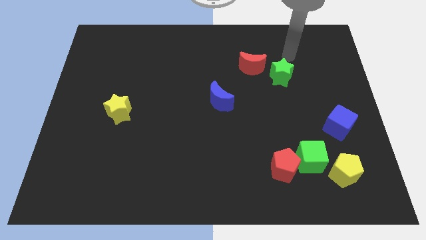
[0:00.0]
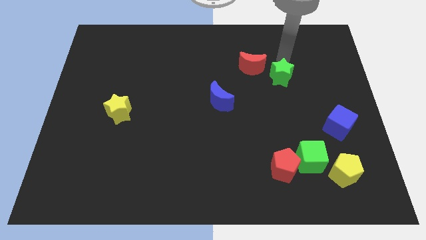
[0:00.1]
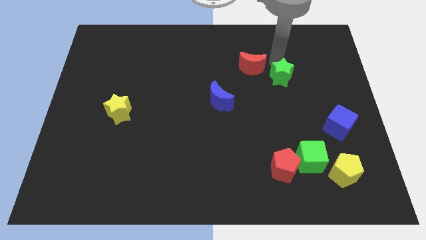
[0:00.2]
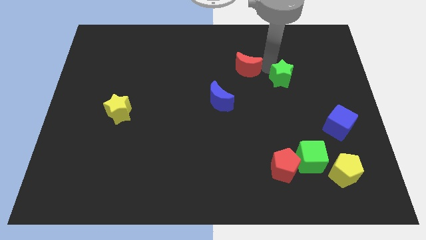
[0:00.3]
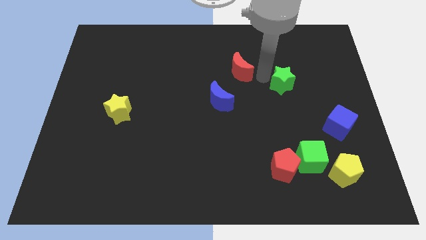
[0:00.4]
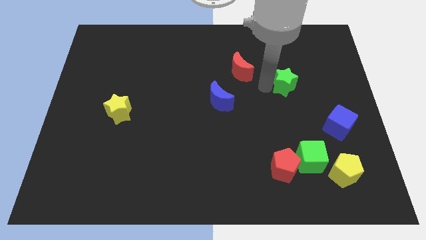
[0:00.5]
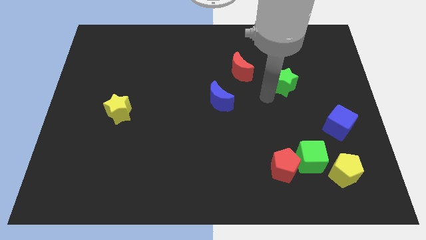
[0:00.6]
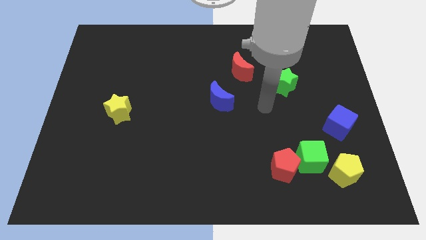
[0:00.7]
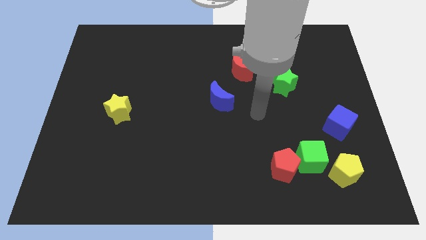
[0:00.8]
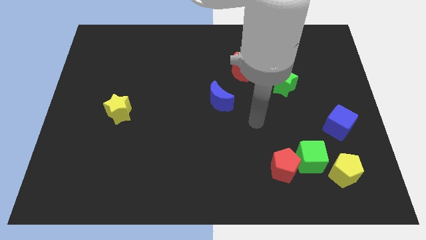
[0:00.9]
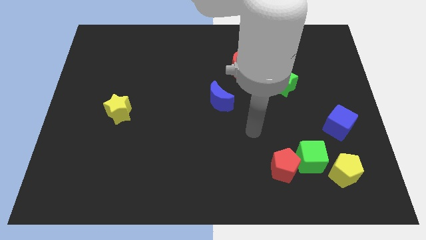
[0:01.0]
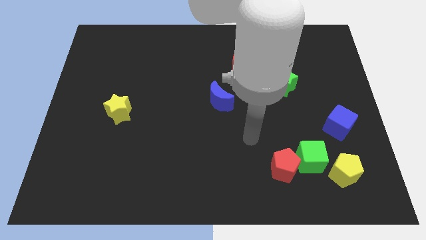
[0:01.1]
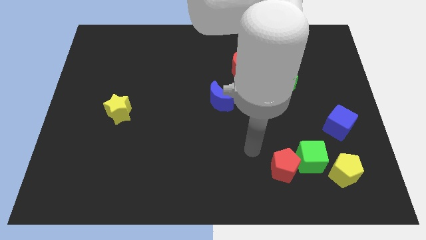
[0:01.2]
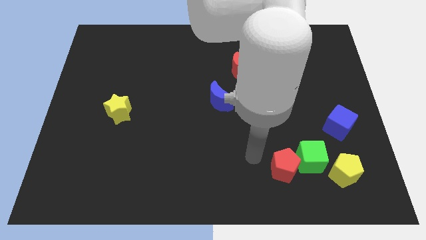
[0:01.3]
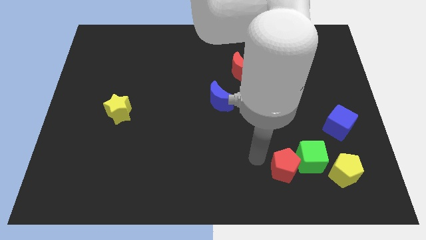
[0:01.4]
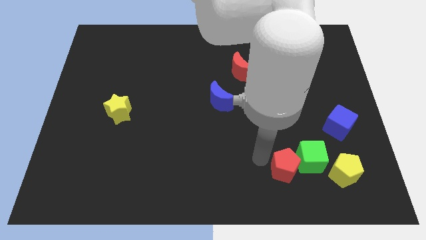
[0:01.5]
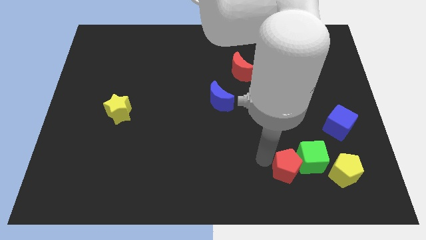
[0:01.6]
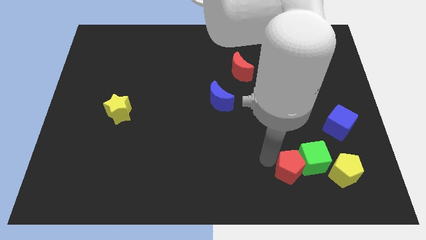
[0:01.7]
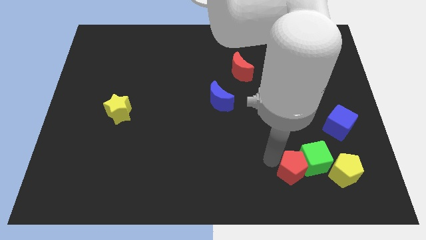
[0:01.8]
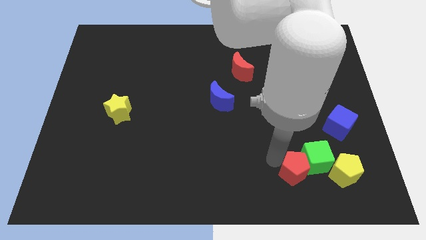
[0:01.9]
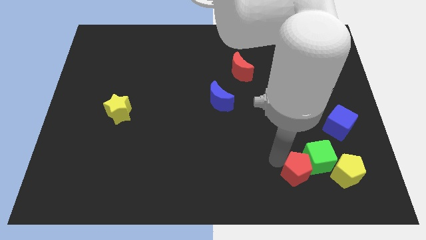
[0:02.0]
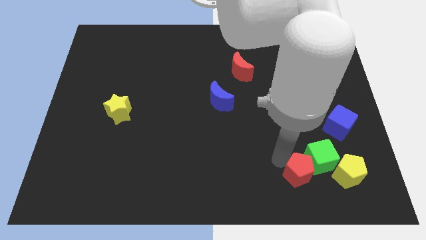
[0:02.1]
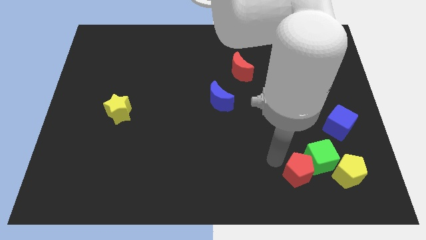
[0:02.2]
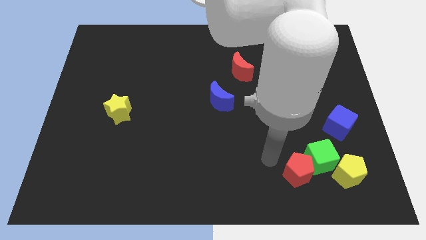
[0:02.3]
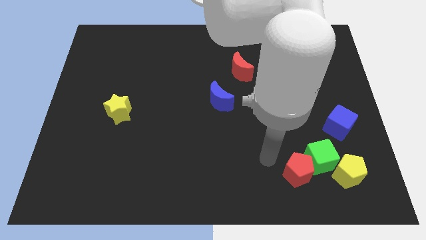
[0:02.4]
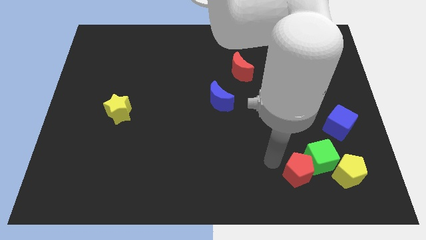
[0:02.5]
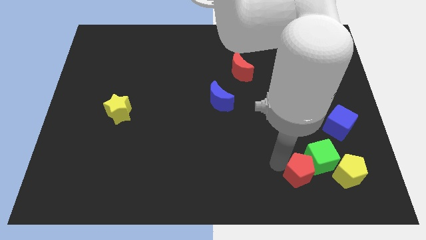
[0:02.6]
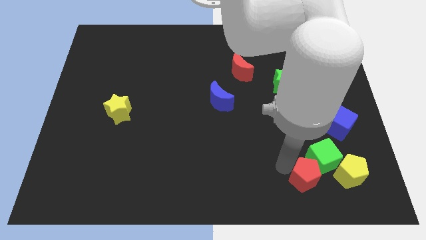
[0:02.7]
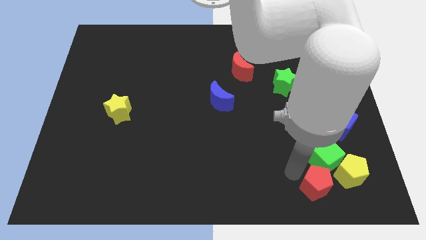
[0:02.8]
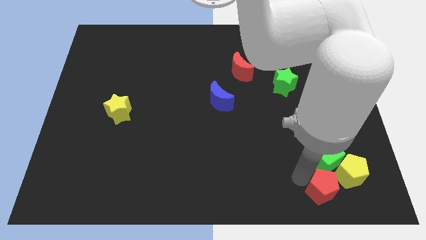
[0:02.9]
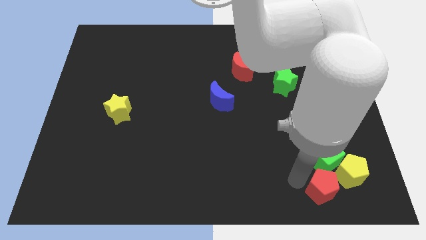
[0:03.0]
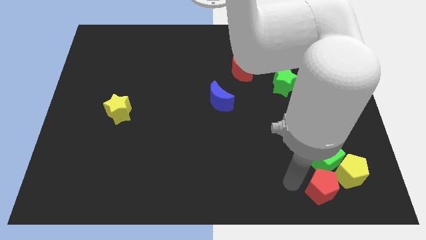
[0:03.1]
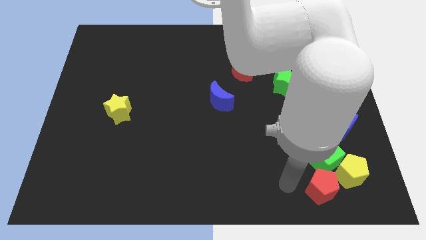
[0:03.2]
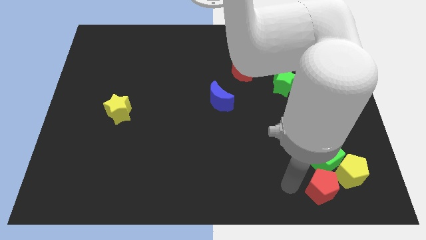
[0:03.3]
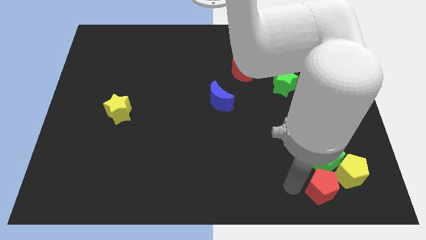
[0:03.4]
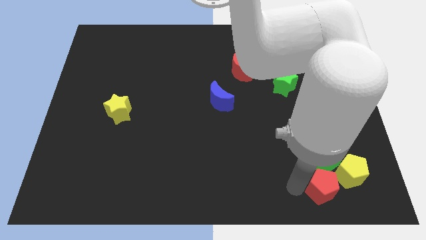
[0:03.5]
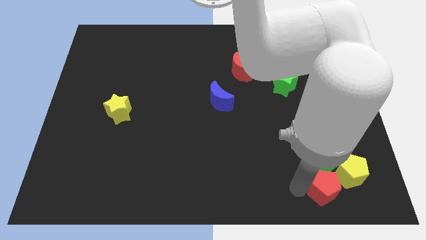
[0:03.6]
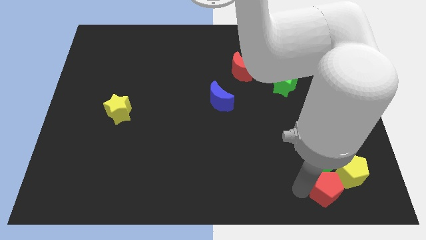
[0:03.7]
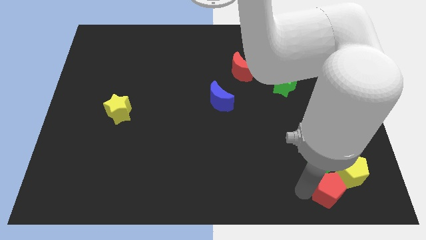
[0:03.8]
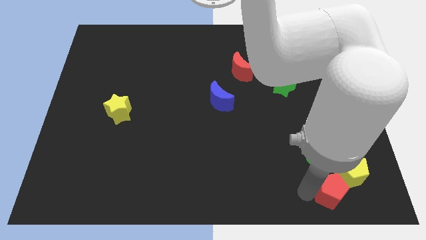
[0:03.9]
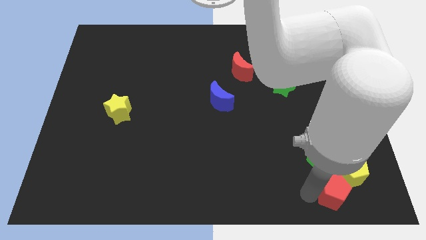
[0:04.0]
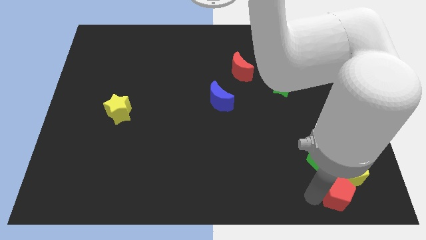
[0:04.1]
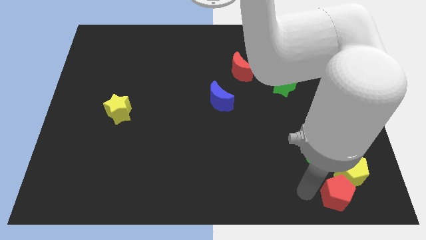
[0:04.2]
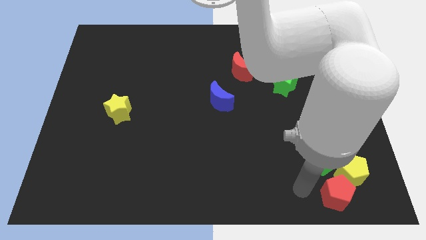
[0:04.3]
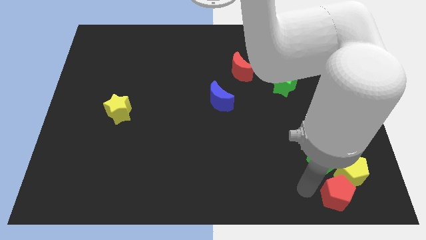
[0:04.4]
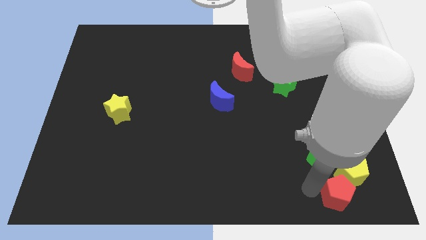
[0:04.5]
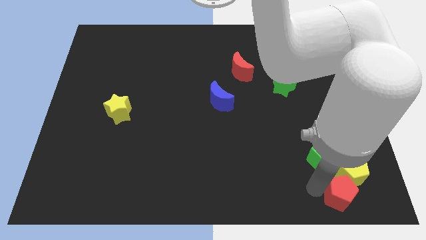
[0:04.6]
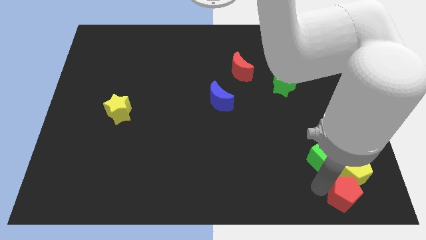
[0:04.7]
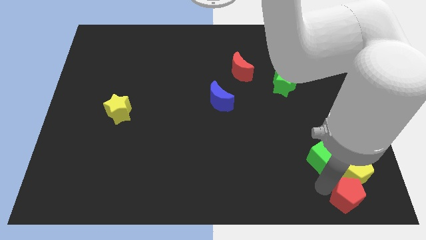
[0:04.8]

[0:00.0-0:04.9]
push the red pentagon to the bottom right

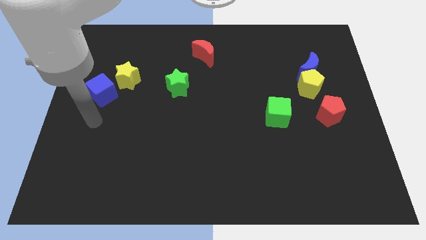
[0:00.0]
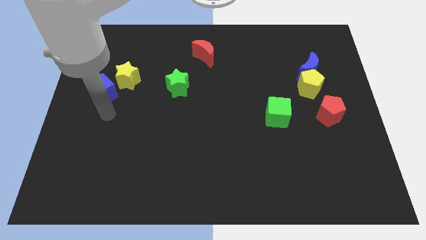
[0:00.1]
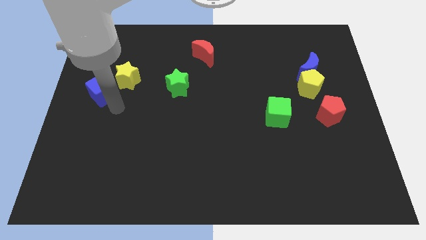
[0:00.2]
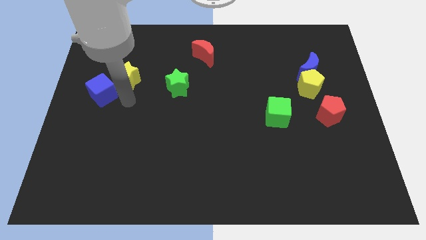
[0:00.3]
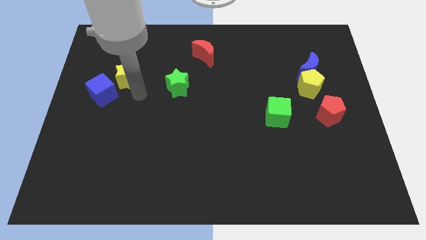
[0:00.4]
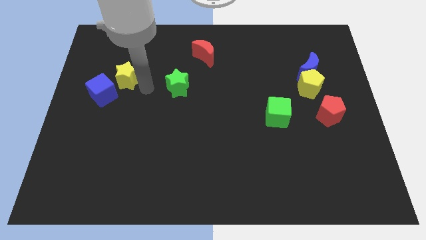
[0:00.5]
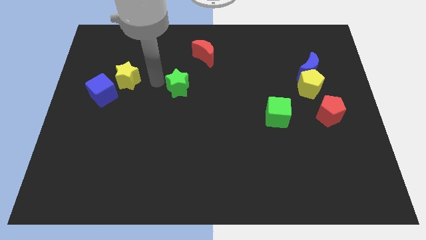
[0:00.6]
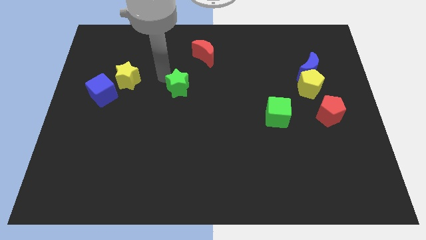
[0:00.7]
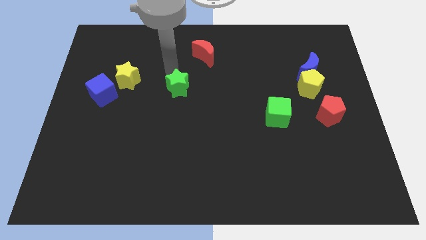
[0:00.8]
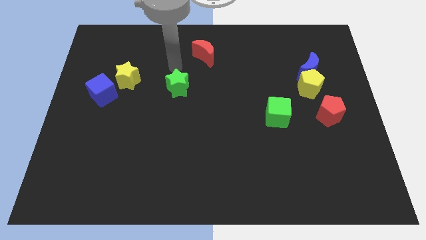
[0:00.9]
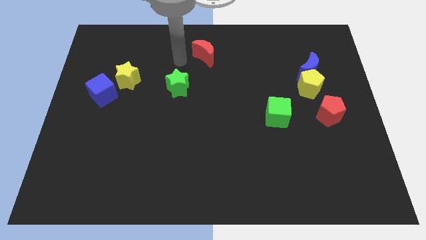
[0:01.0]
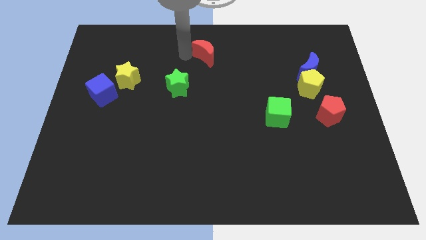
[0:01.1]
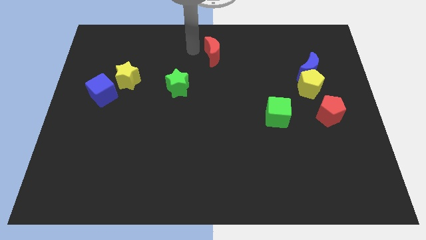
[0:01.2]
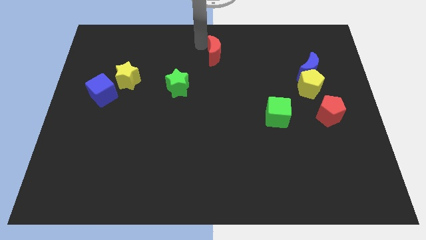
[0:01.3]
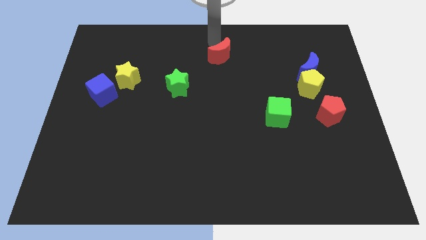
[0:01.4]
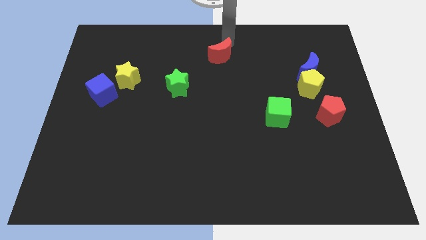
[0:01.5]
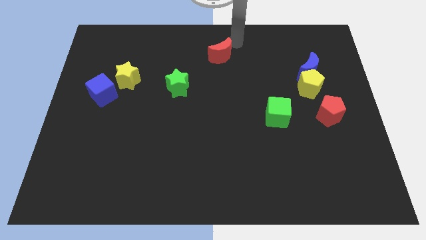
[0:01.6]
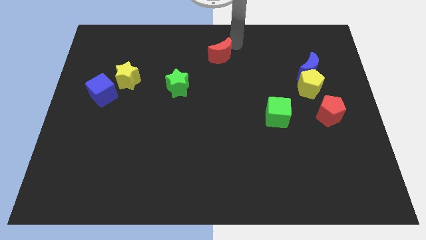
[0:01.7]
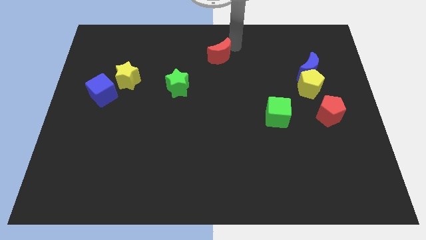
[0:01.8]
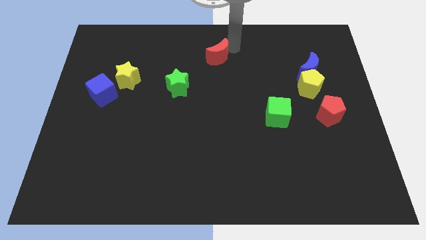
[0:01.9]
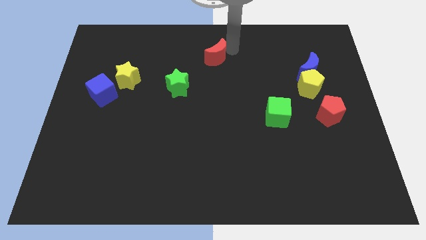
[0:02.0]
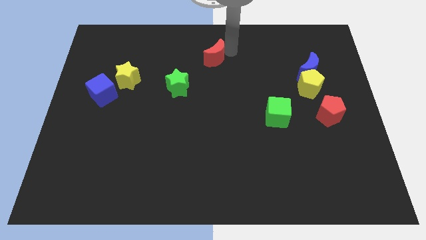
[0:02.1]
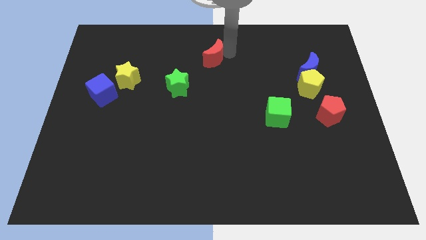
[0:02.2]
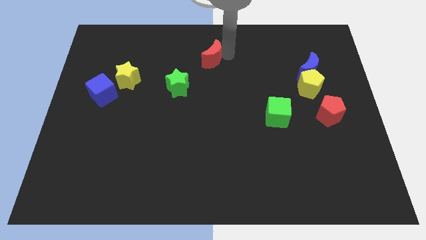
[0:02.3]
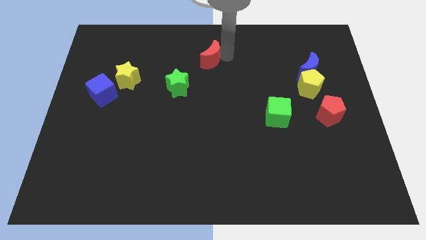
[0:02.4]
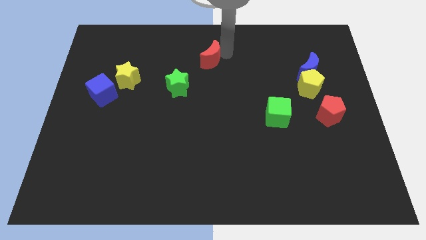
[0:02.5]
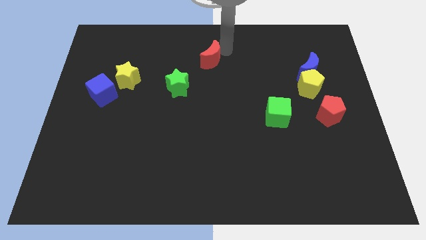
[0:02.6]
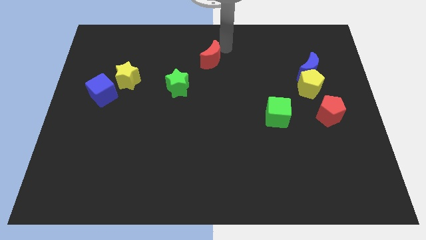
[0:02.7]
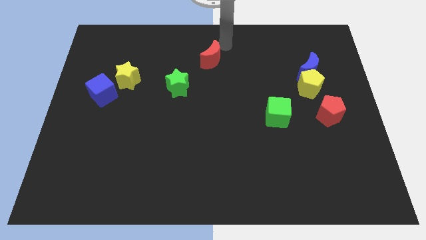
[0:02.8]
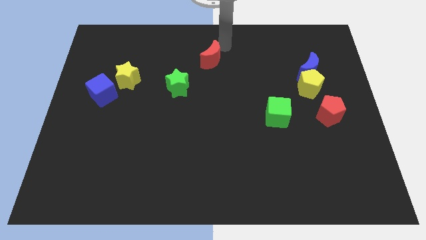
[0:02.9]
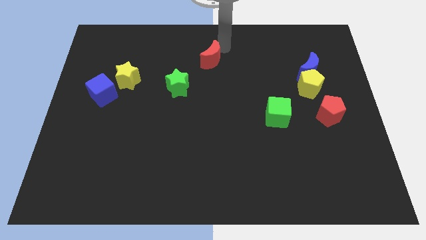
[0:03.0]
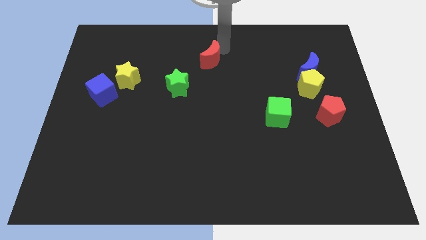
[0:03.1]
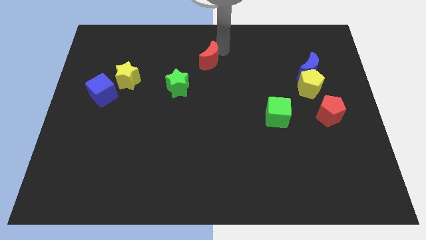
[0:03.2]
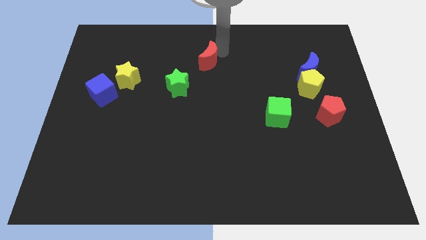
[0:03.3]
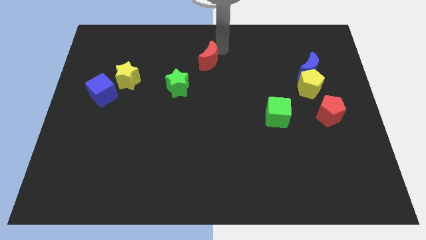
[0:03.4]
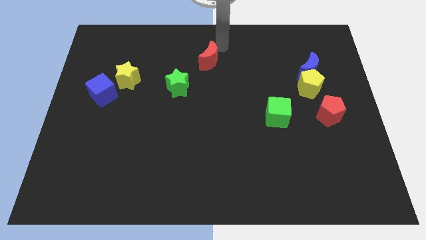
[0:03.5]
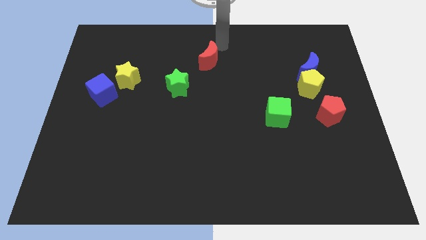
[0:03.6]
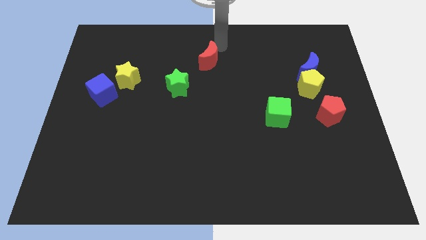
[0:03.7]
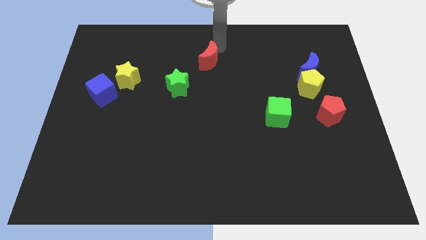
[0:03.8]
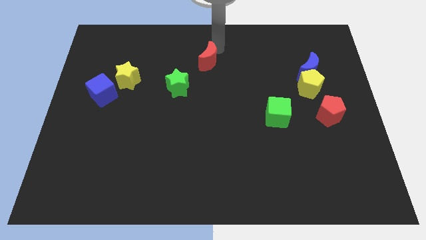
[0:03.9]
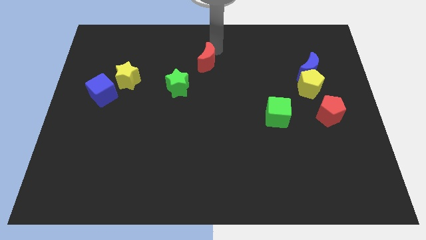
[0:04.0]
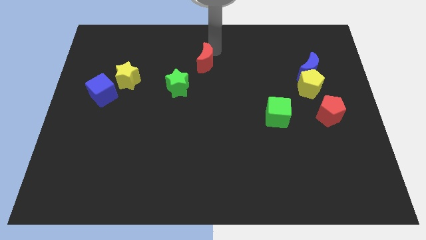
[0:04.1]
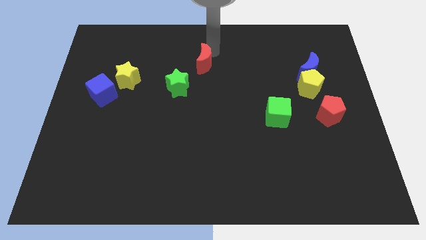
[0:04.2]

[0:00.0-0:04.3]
put the red moon to the center of the board
